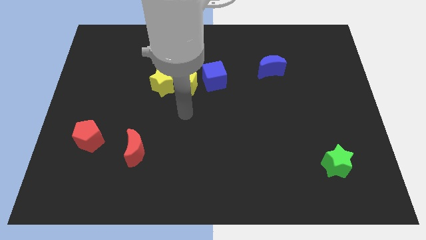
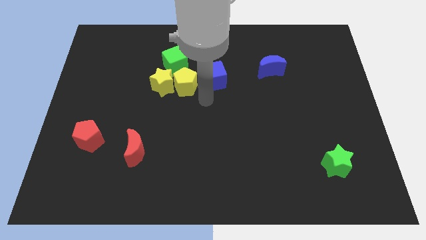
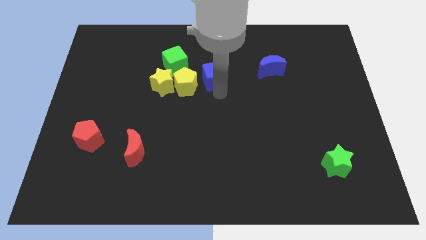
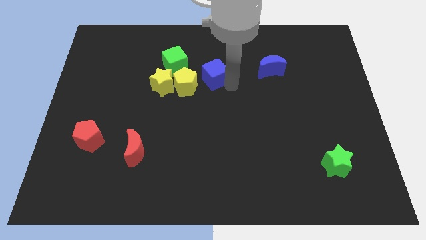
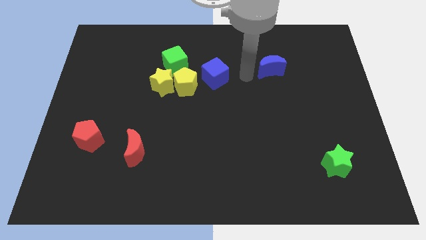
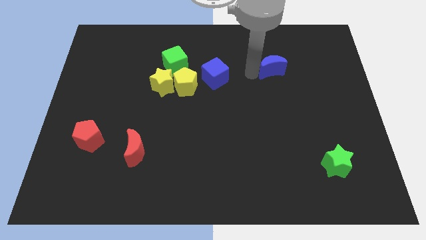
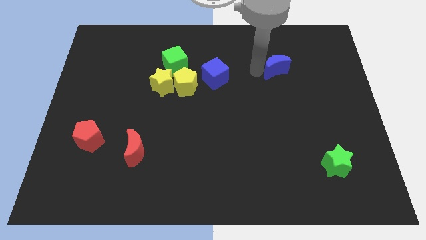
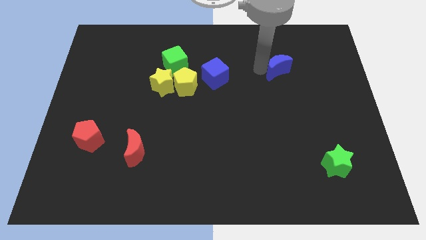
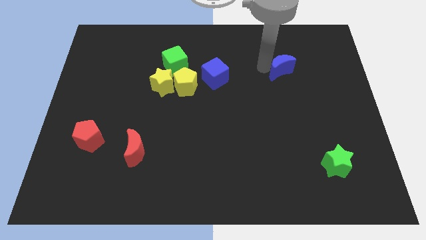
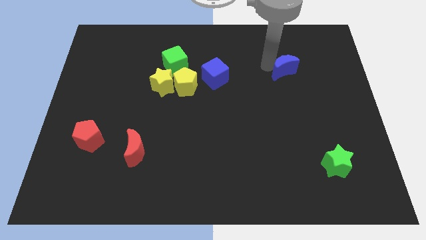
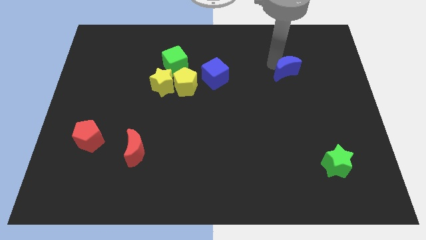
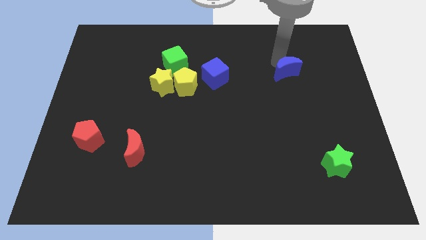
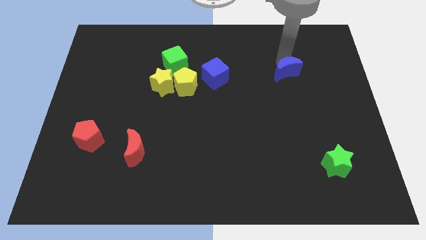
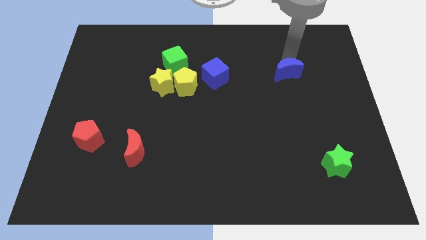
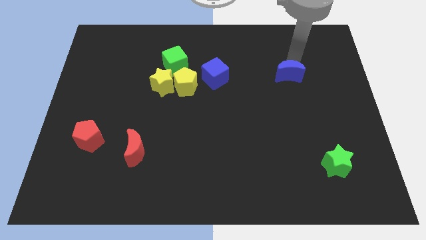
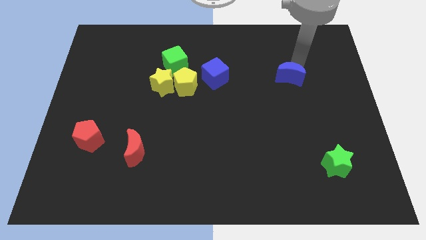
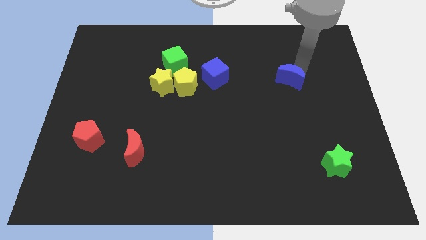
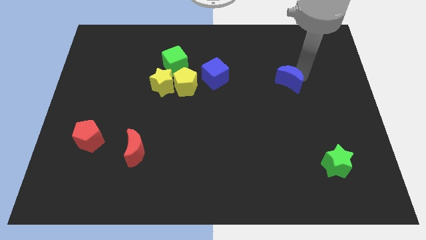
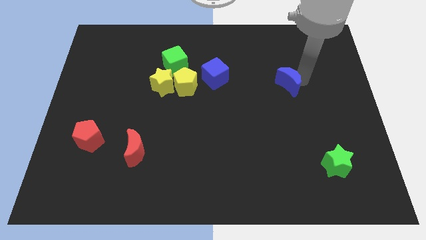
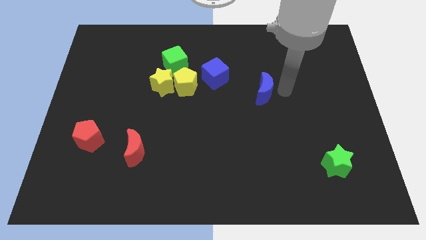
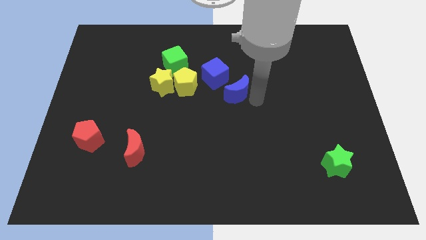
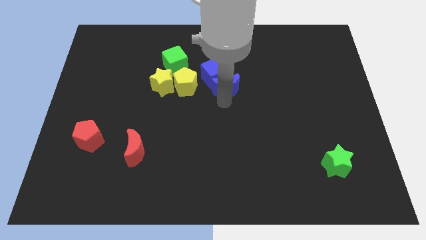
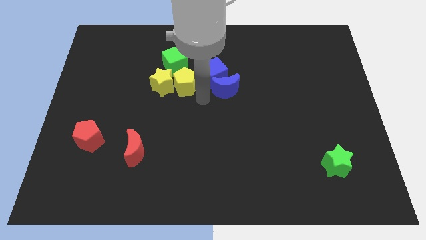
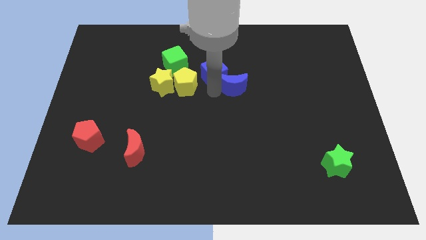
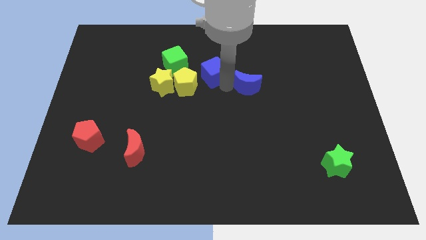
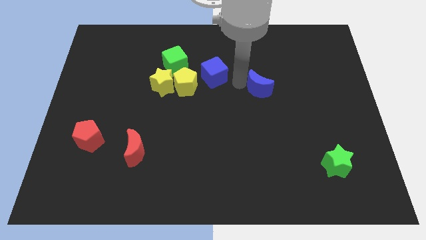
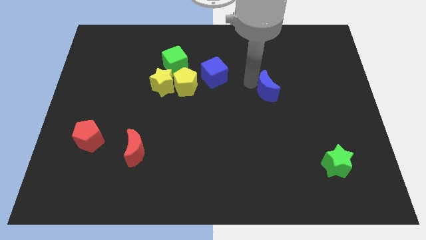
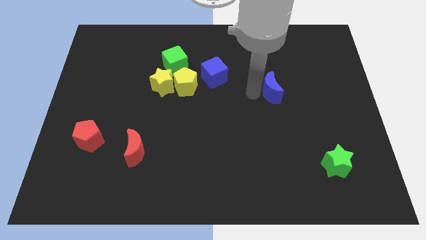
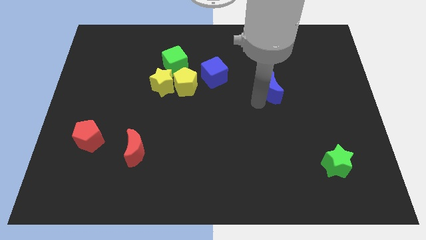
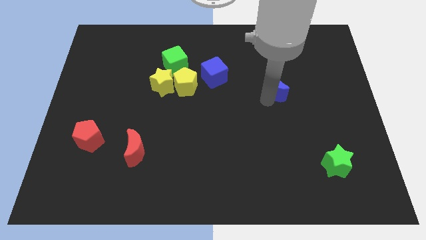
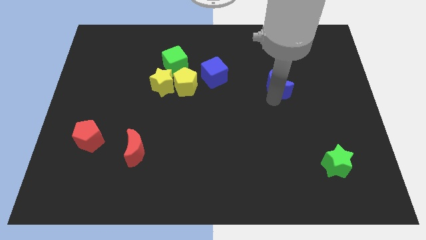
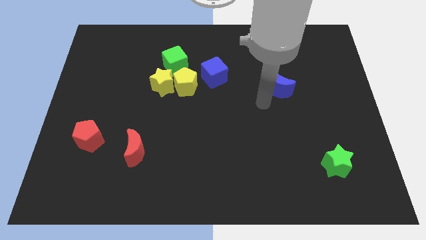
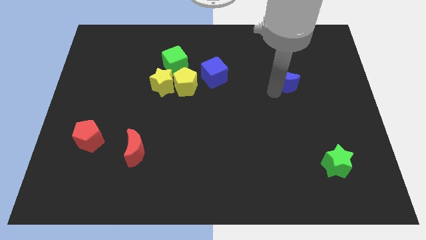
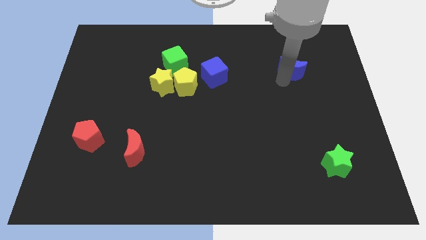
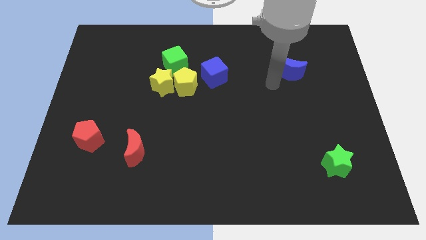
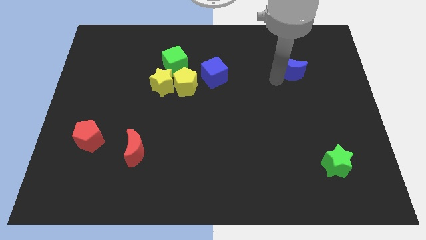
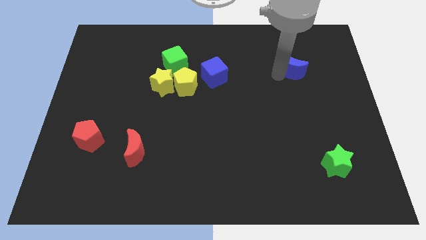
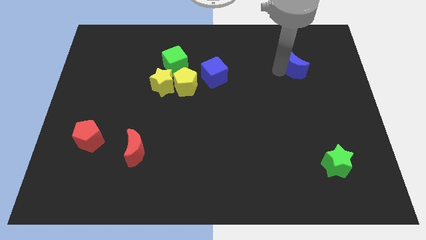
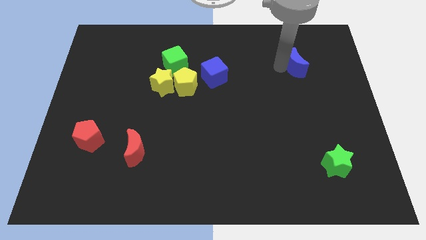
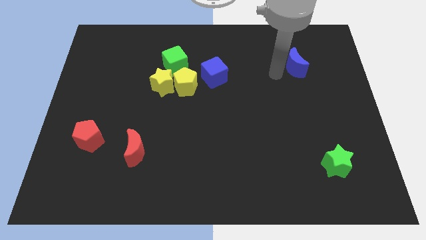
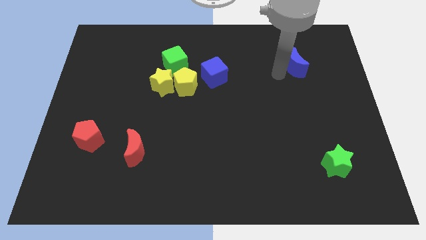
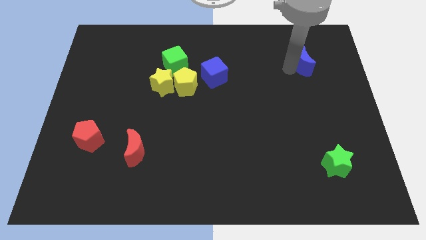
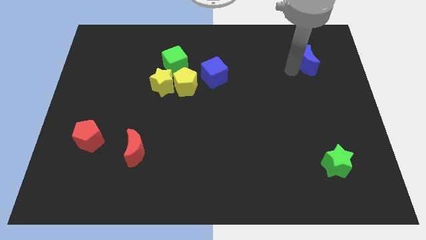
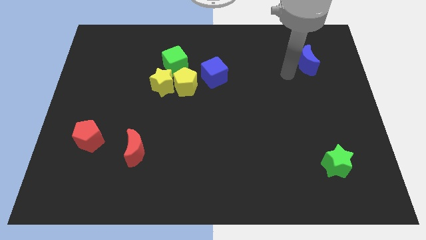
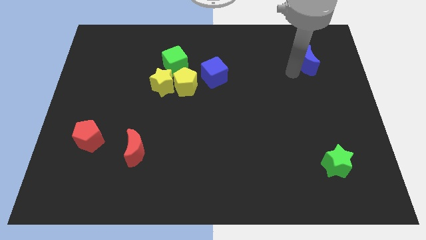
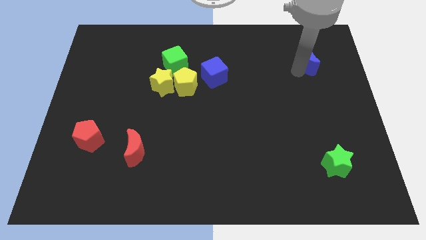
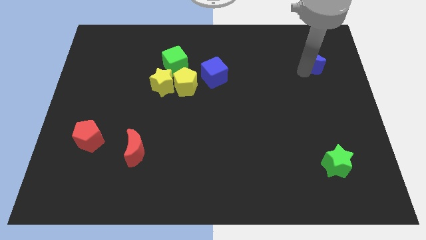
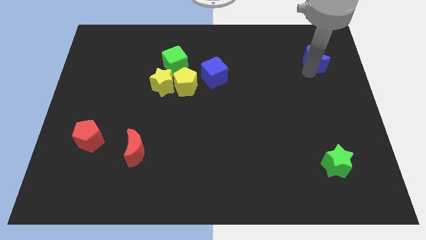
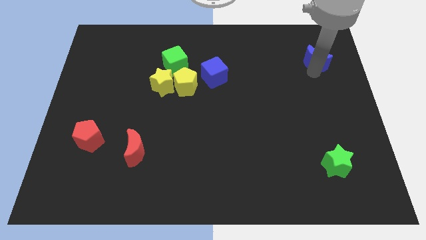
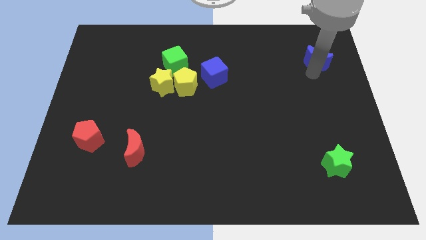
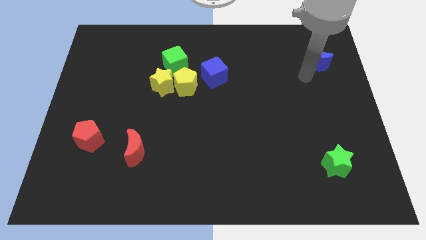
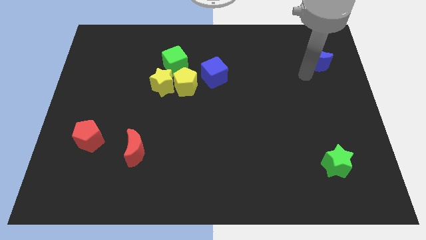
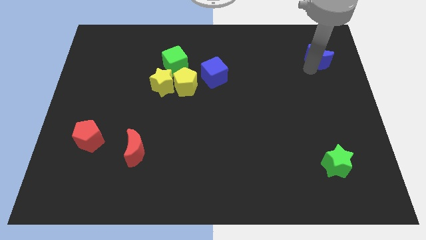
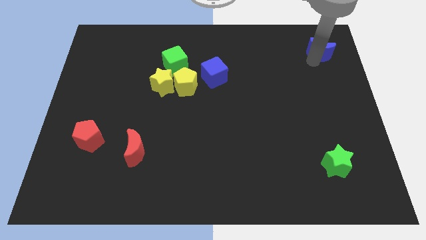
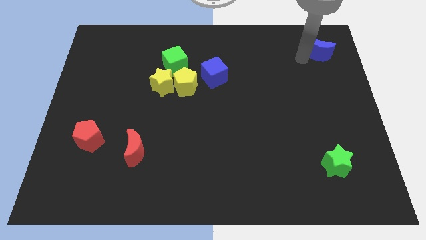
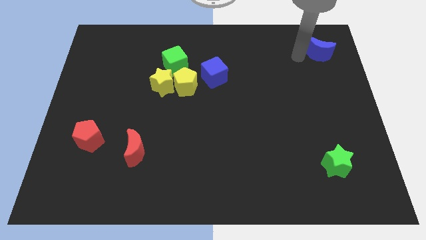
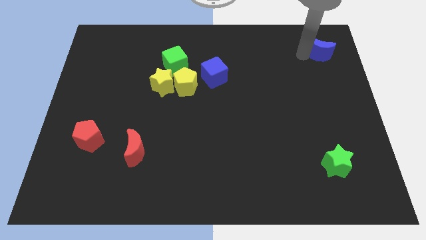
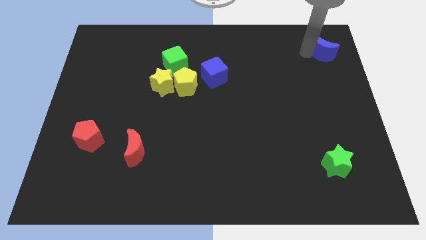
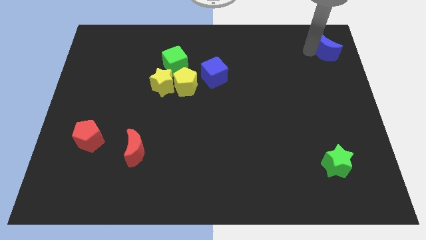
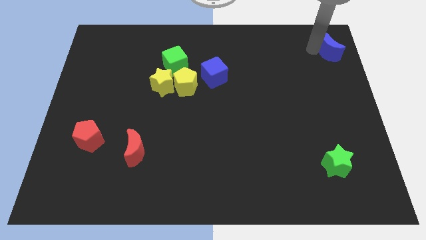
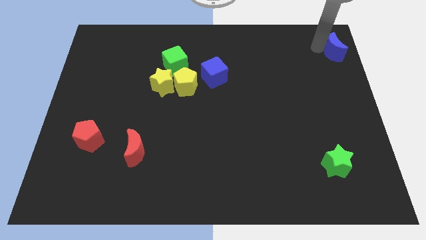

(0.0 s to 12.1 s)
put the blue moon to the top right of the board

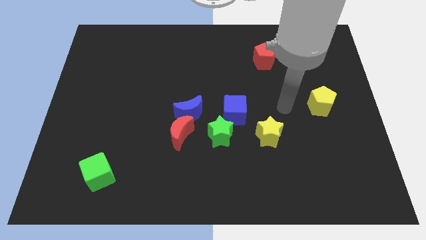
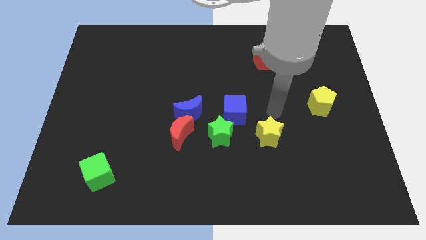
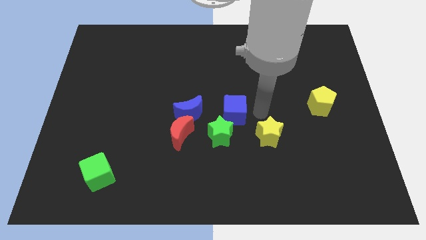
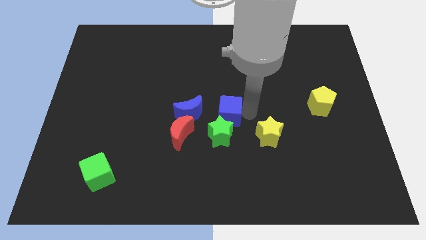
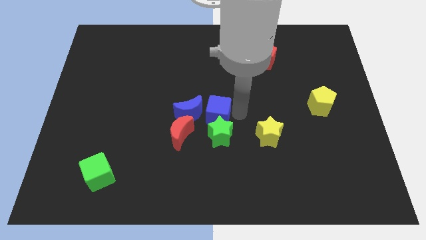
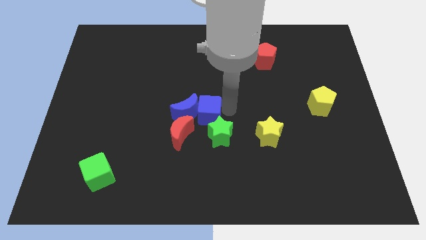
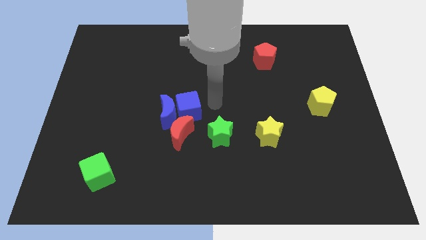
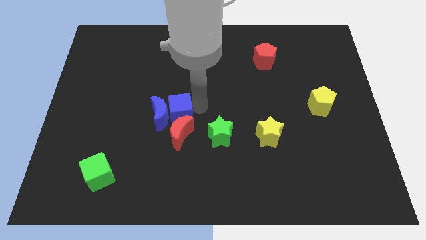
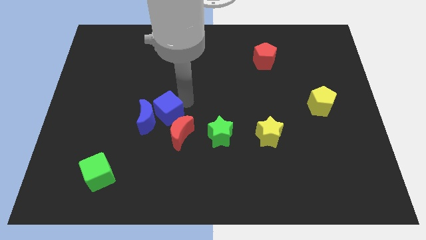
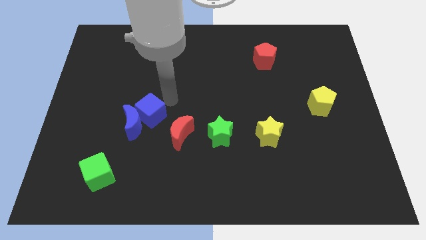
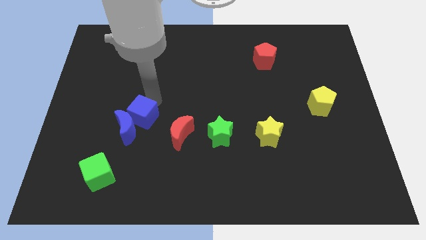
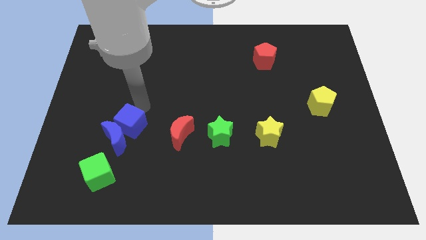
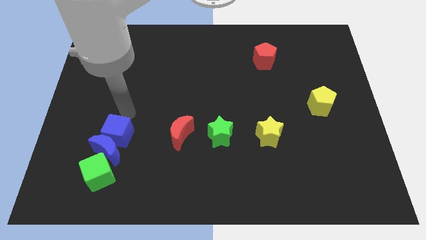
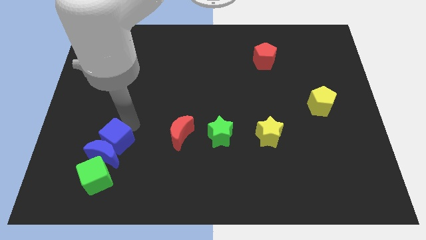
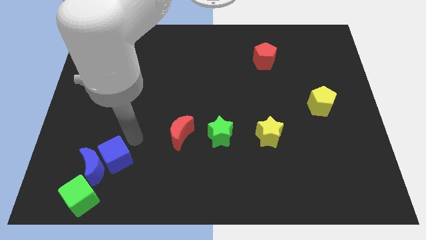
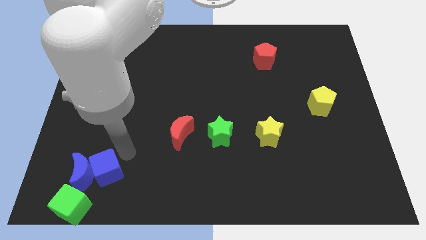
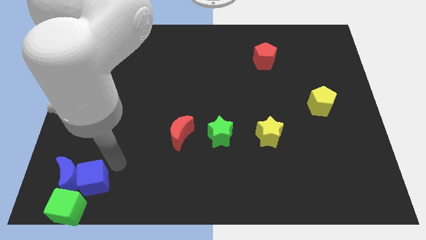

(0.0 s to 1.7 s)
slide the blue moon to the bottom left of the board
